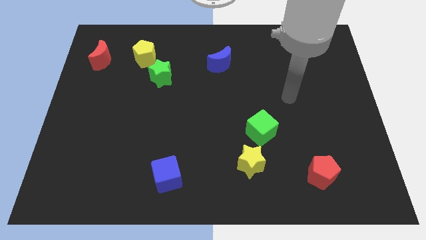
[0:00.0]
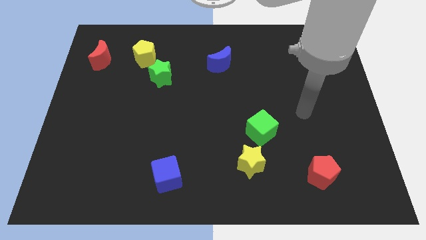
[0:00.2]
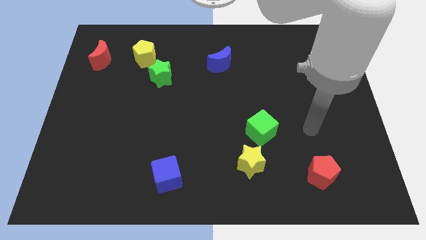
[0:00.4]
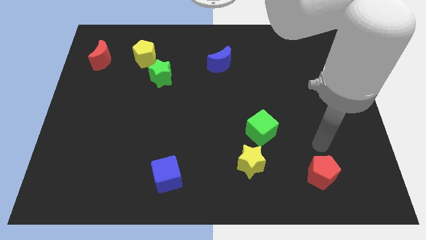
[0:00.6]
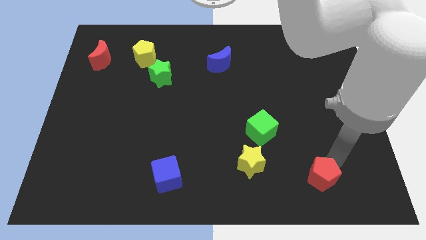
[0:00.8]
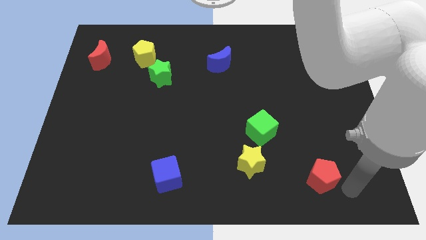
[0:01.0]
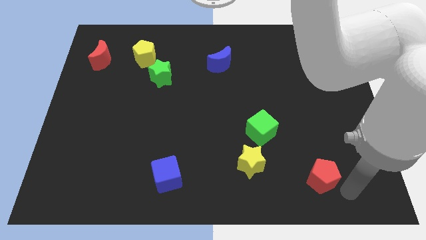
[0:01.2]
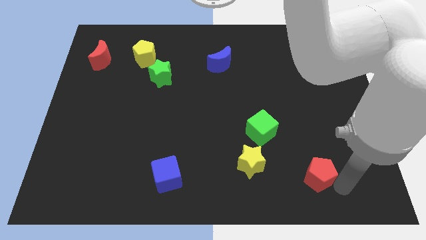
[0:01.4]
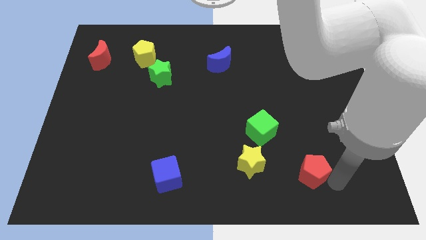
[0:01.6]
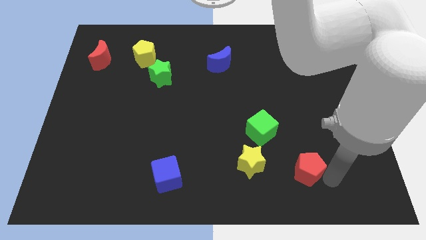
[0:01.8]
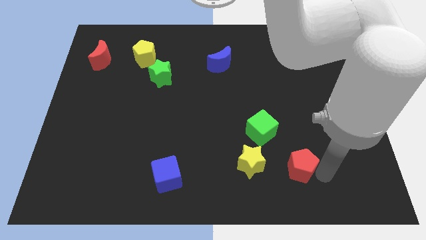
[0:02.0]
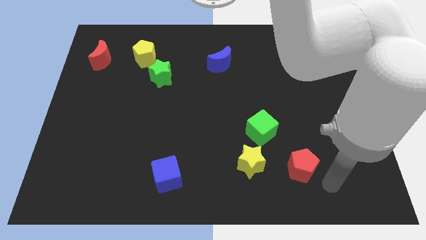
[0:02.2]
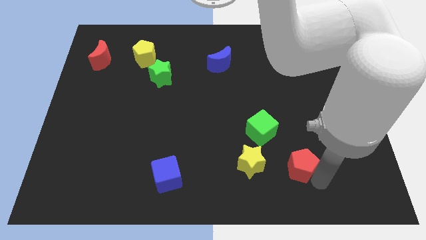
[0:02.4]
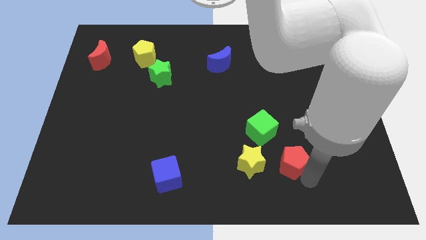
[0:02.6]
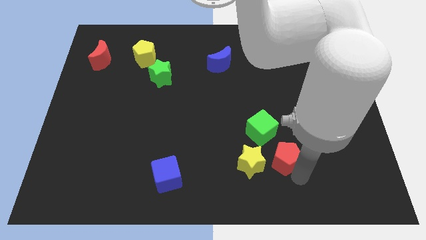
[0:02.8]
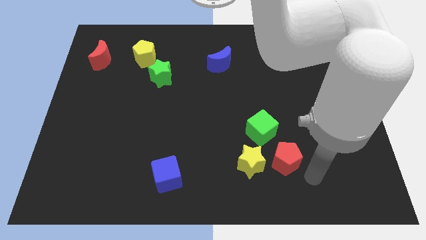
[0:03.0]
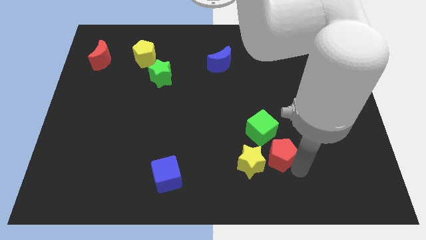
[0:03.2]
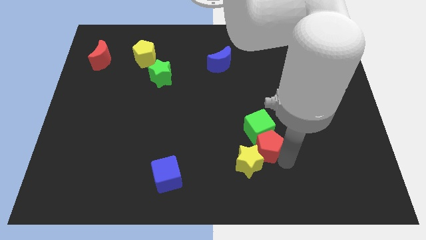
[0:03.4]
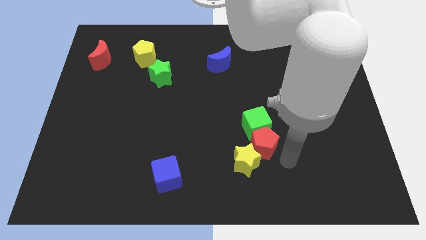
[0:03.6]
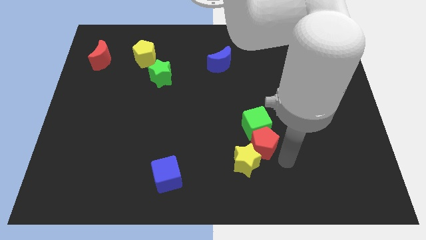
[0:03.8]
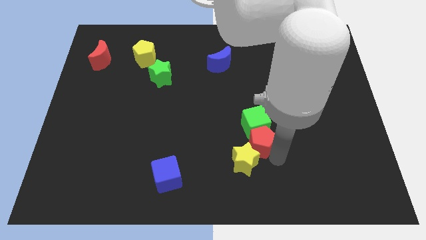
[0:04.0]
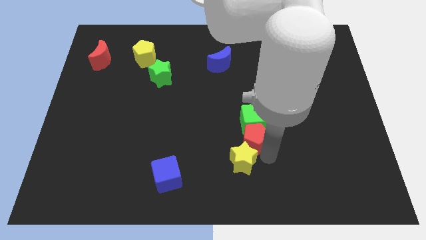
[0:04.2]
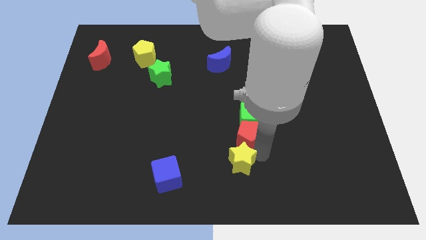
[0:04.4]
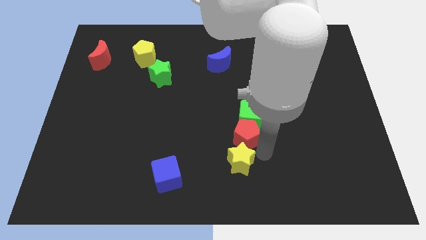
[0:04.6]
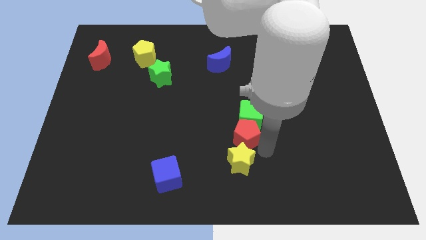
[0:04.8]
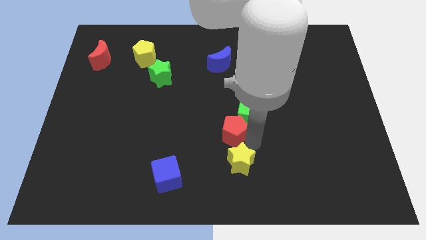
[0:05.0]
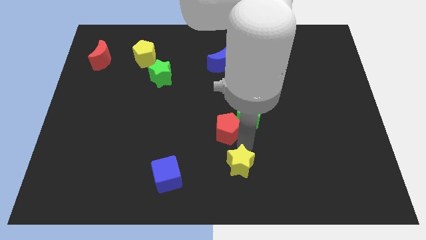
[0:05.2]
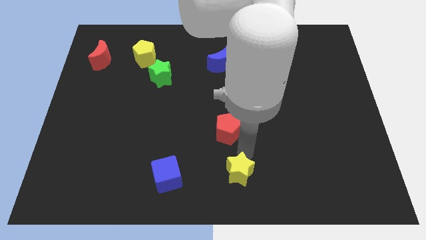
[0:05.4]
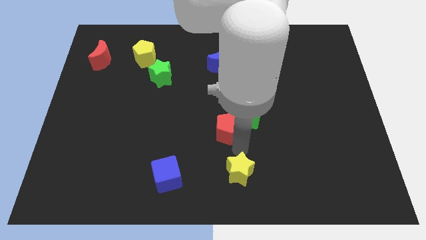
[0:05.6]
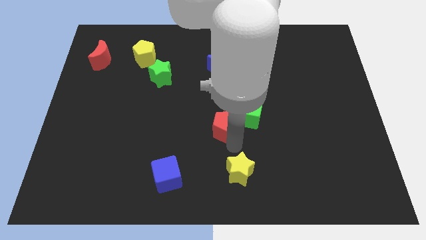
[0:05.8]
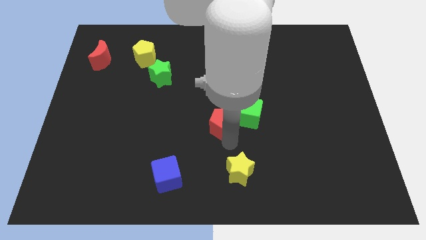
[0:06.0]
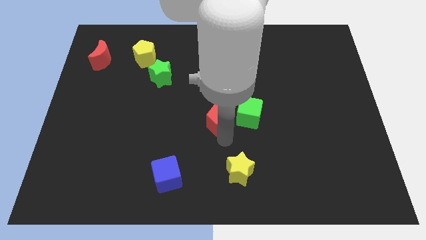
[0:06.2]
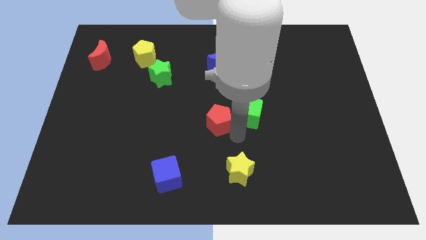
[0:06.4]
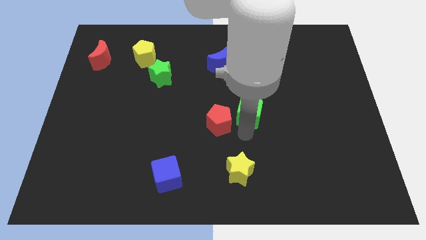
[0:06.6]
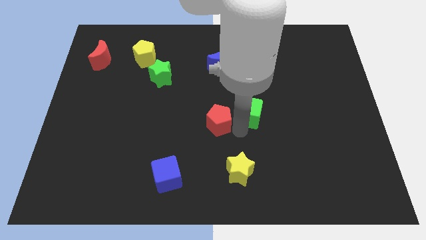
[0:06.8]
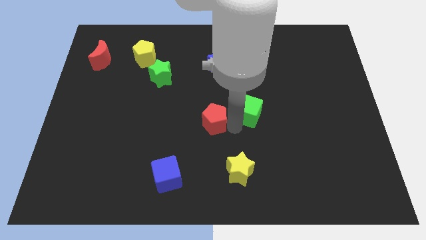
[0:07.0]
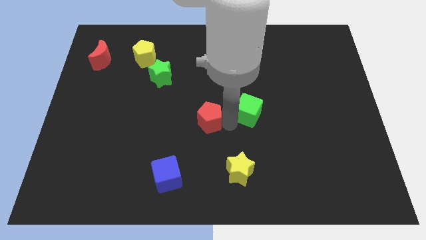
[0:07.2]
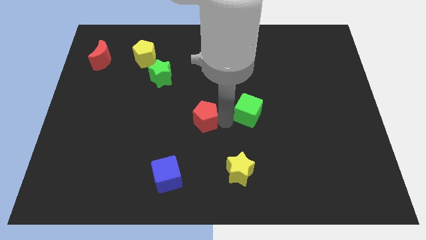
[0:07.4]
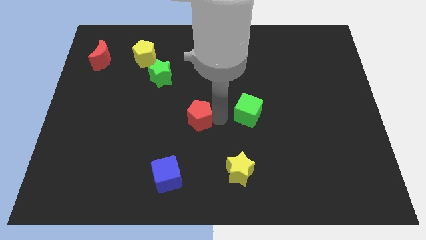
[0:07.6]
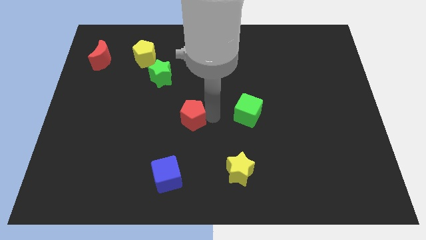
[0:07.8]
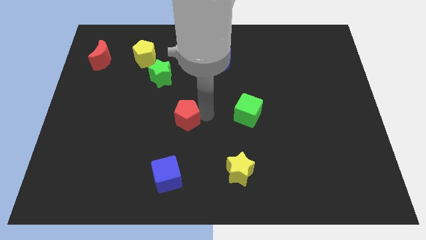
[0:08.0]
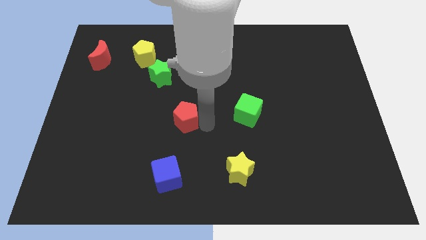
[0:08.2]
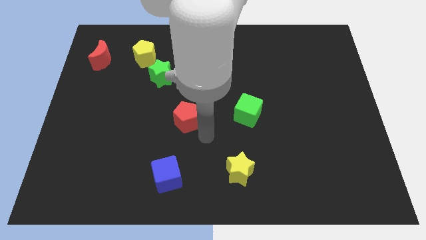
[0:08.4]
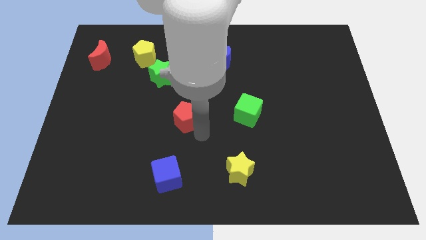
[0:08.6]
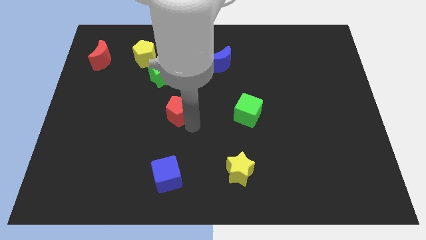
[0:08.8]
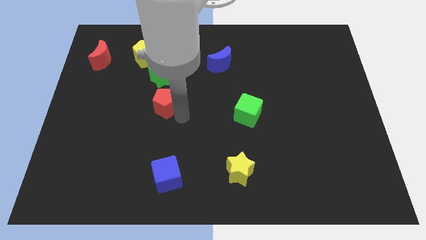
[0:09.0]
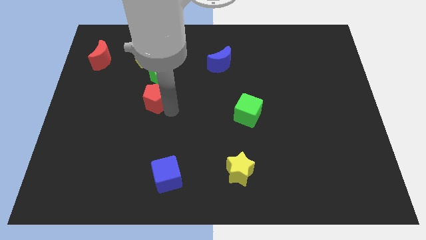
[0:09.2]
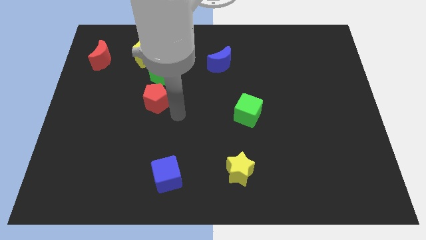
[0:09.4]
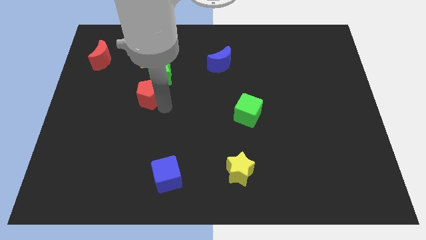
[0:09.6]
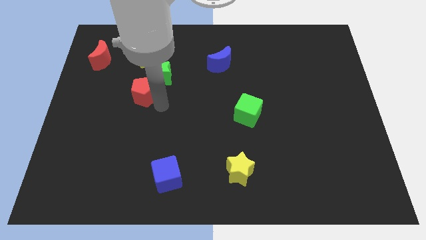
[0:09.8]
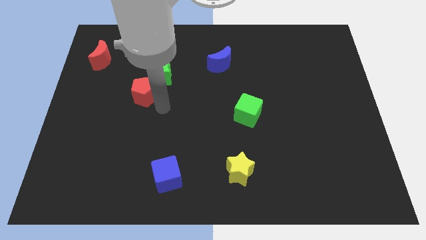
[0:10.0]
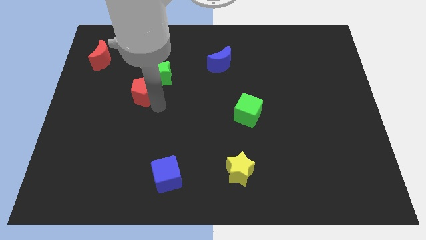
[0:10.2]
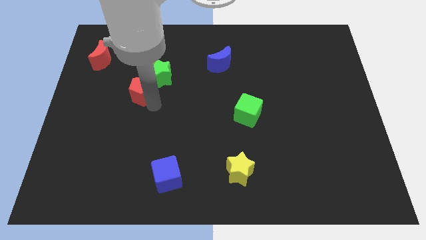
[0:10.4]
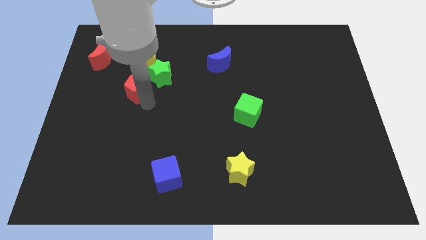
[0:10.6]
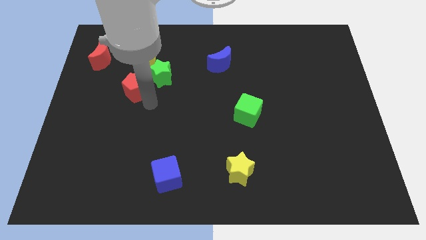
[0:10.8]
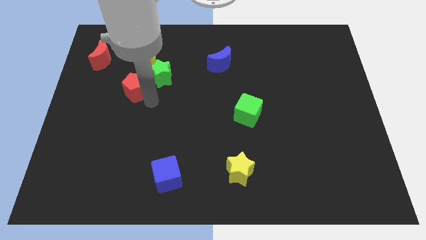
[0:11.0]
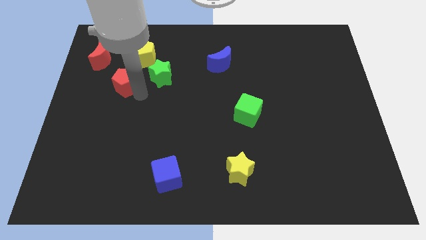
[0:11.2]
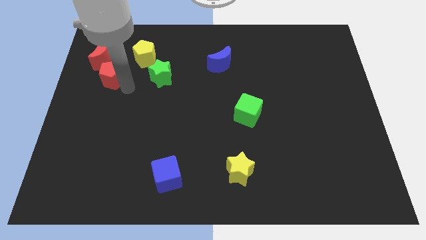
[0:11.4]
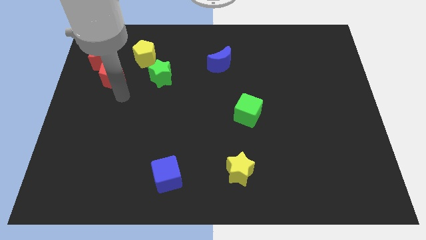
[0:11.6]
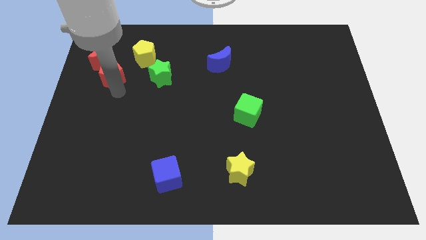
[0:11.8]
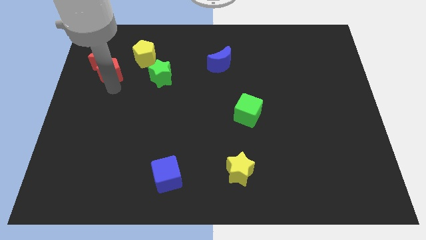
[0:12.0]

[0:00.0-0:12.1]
put the red pentagon close to the red moon
